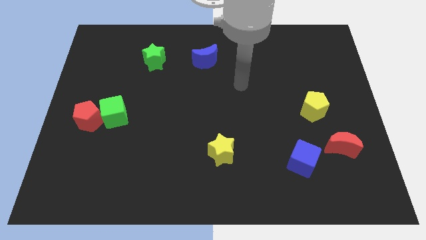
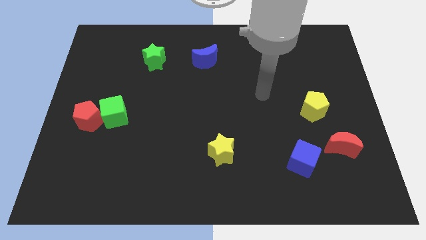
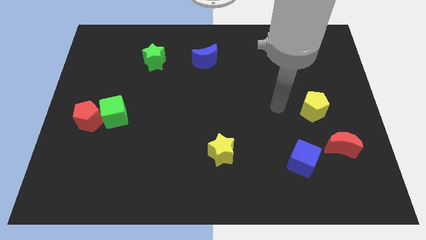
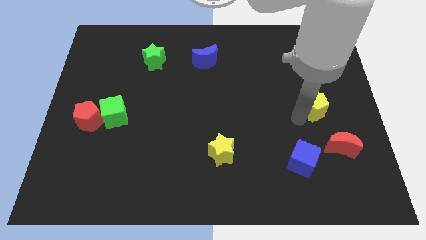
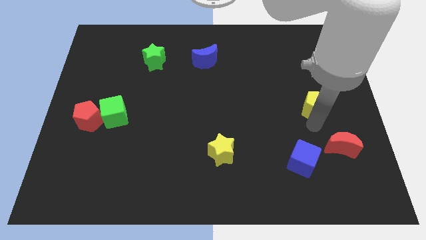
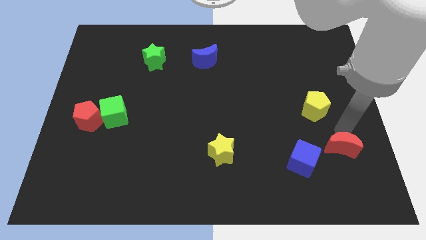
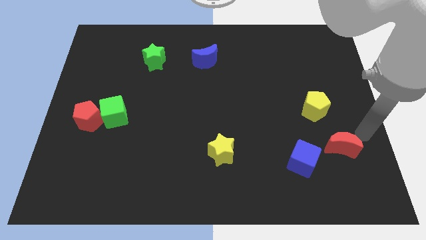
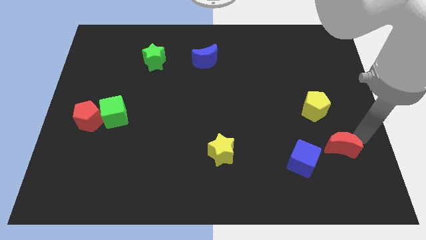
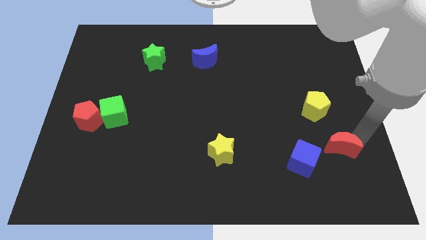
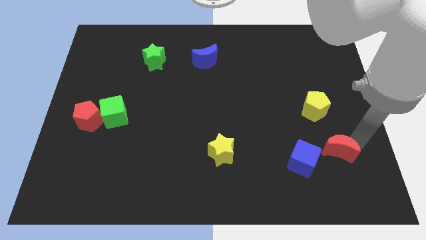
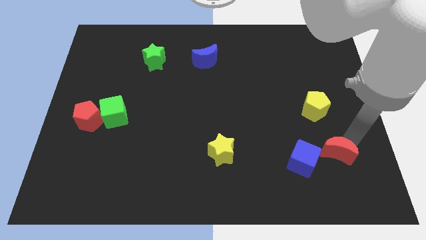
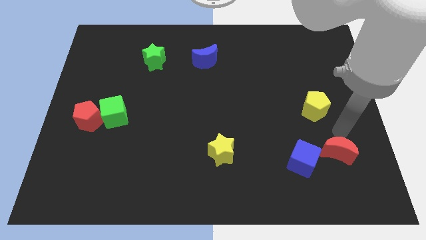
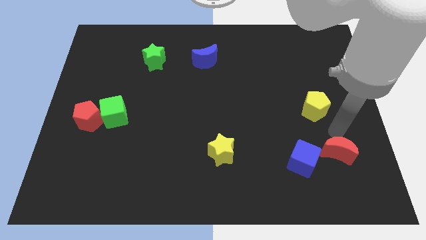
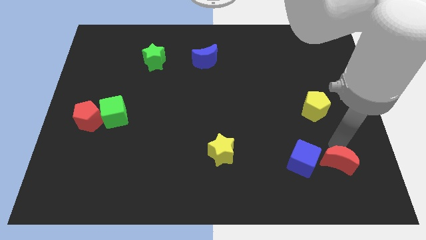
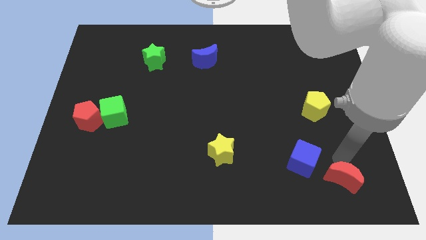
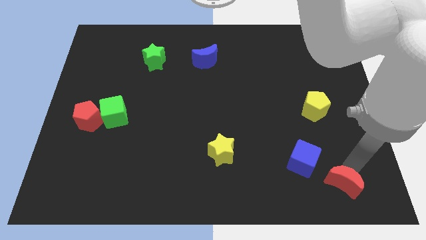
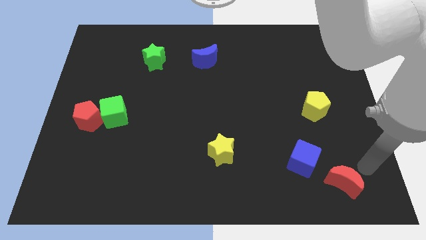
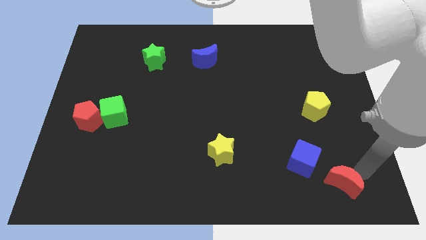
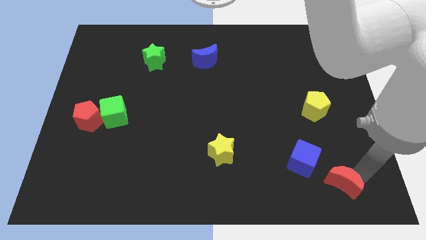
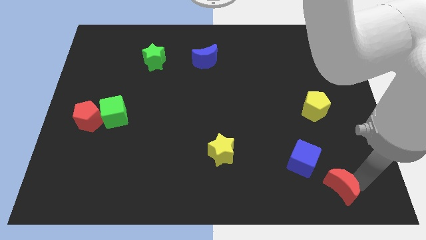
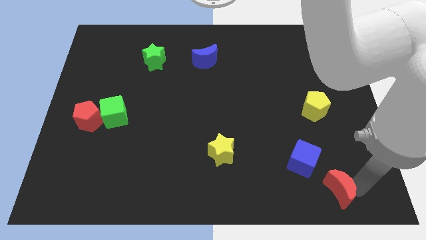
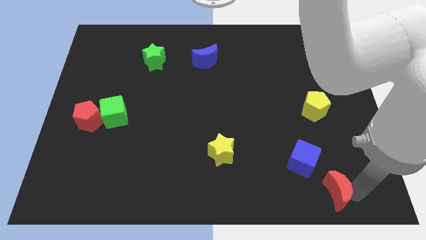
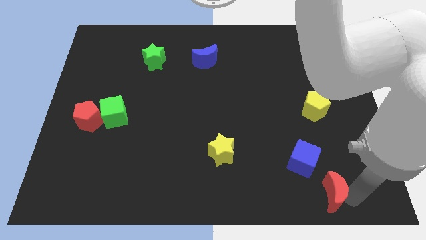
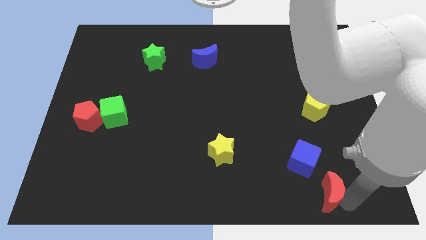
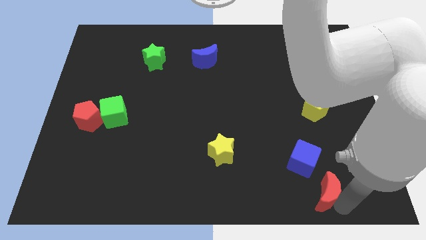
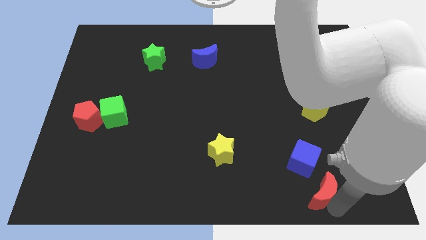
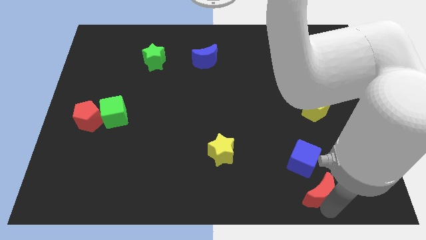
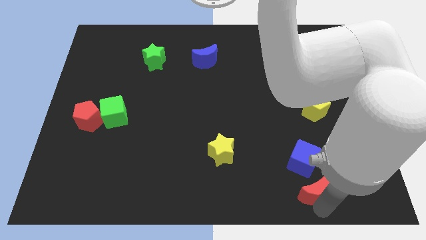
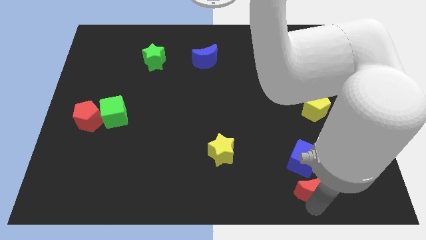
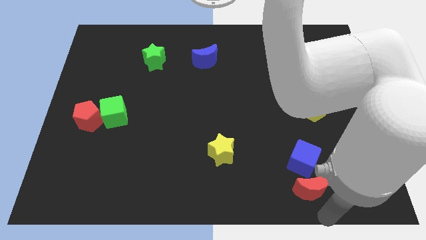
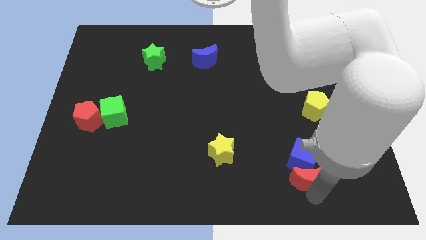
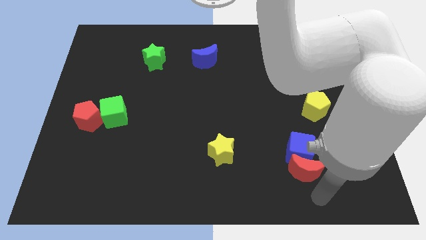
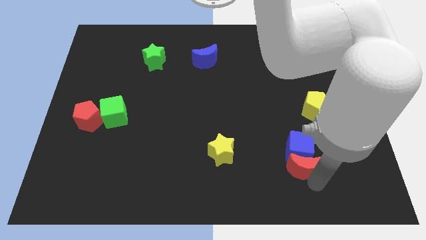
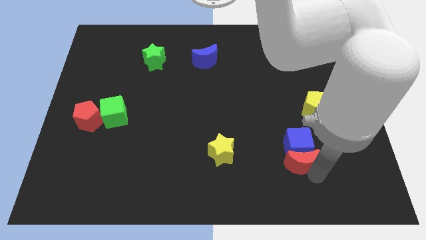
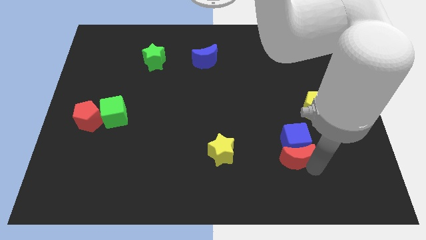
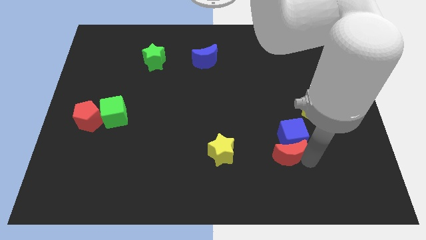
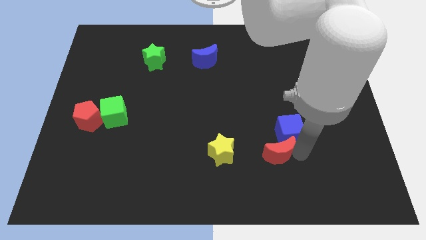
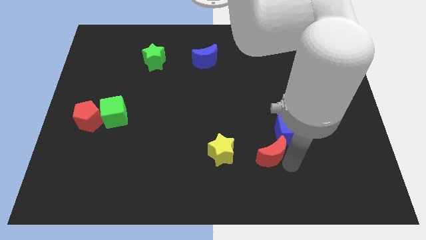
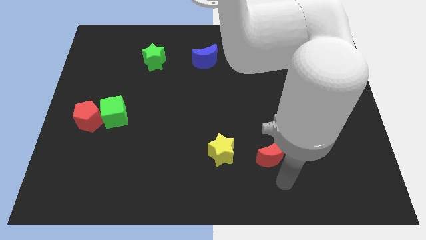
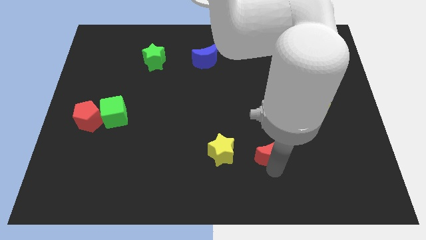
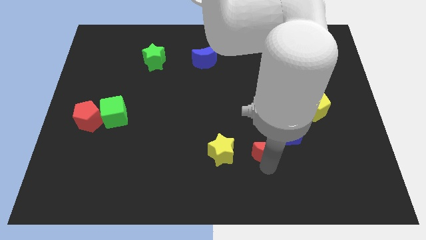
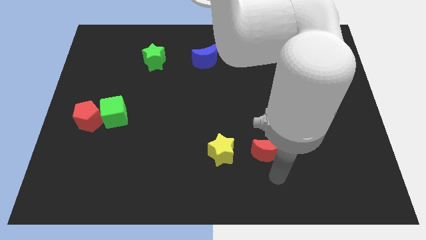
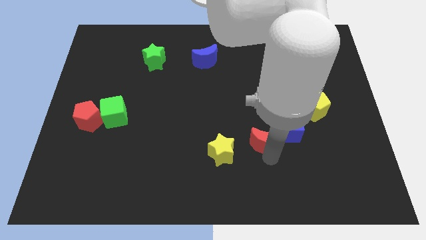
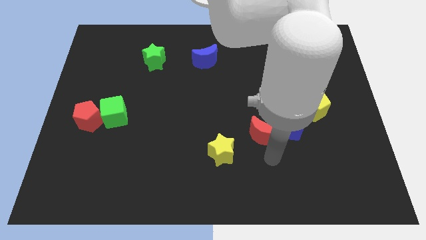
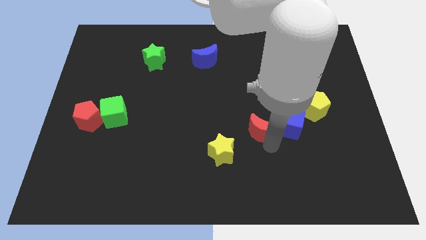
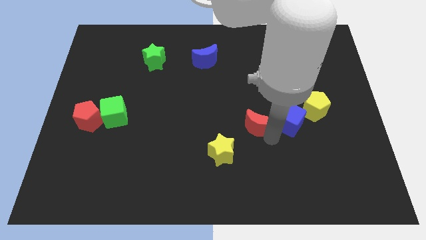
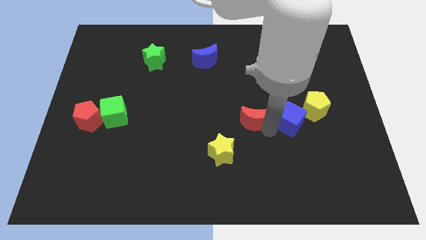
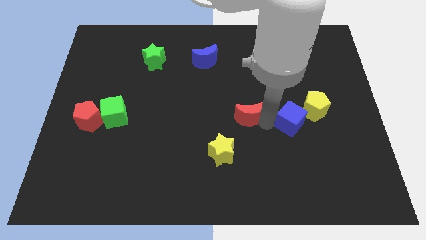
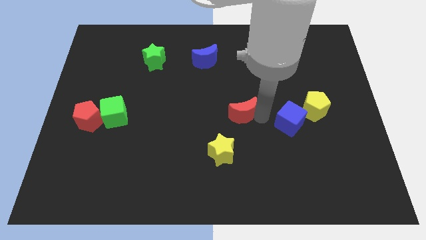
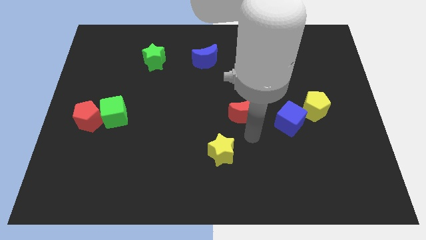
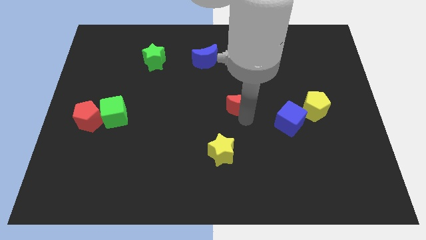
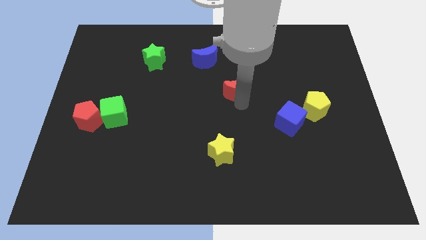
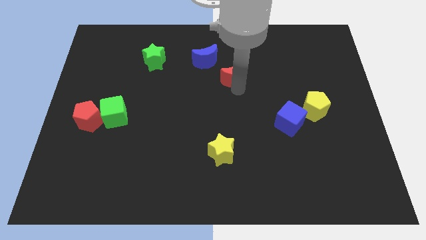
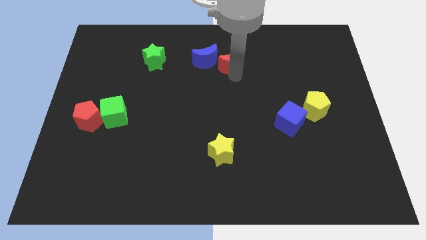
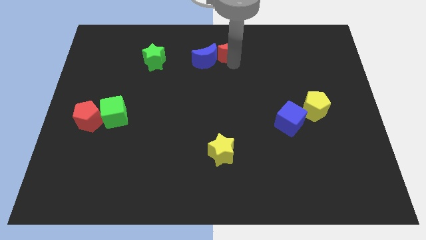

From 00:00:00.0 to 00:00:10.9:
put the red moon to the top side
